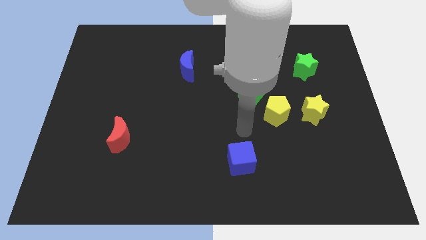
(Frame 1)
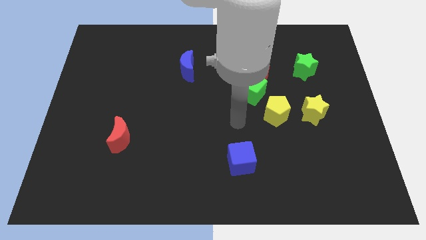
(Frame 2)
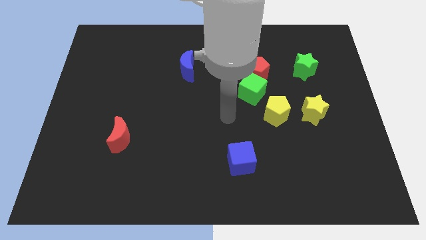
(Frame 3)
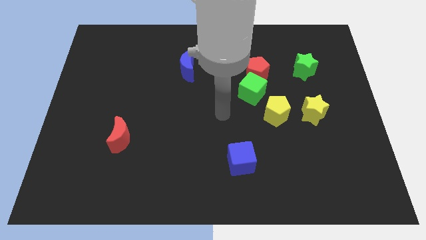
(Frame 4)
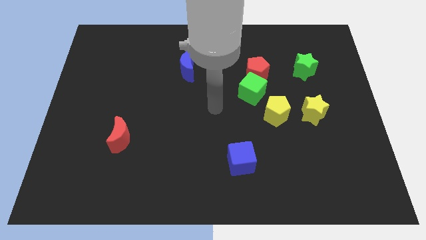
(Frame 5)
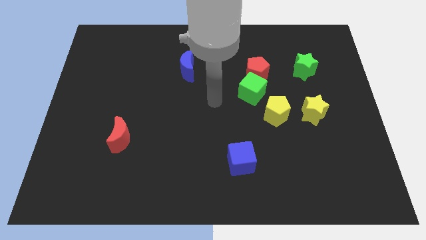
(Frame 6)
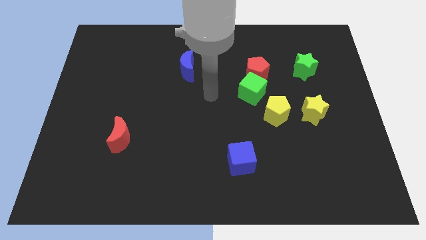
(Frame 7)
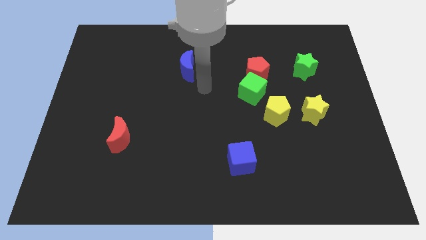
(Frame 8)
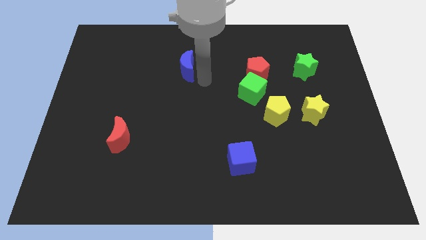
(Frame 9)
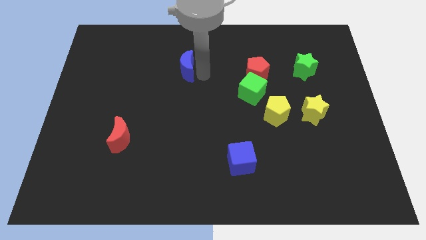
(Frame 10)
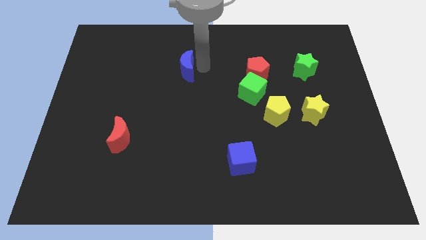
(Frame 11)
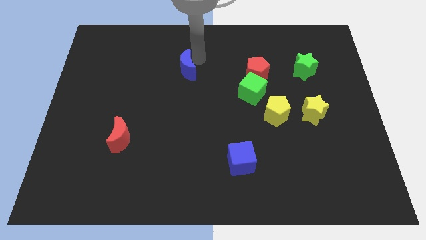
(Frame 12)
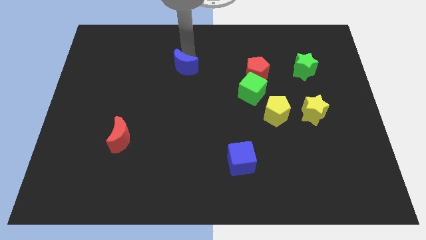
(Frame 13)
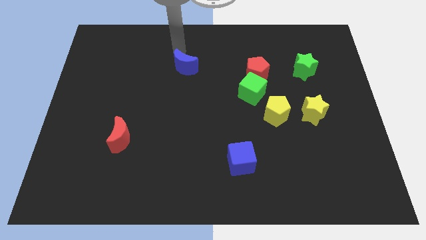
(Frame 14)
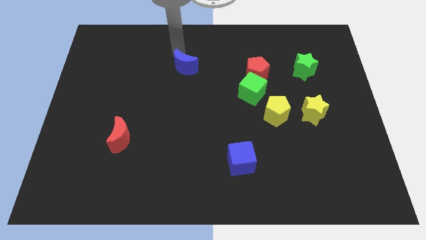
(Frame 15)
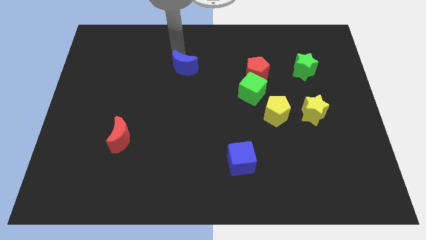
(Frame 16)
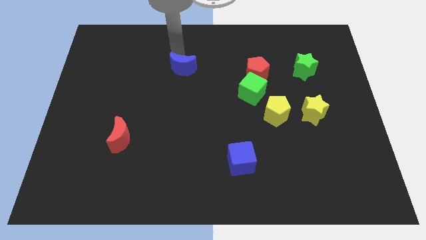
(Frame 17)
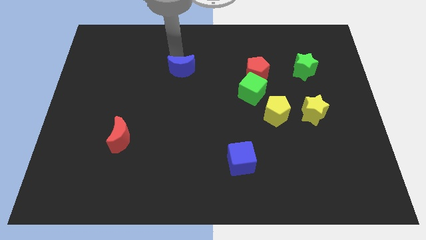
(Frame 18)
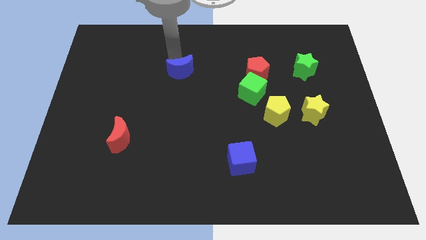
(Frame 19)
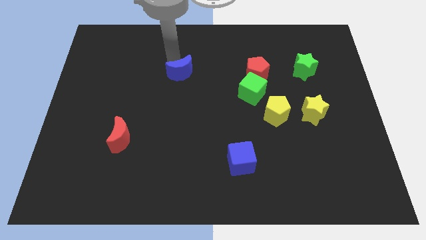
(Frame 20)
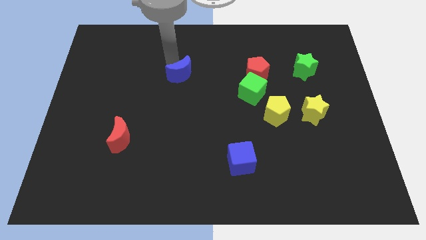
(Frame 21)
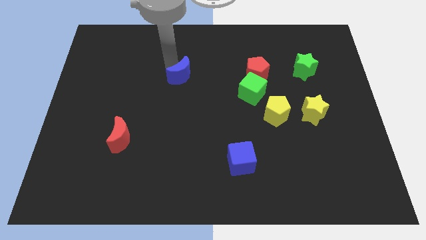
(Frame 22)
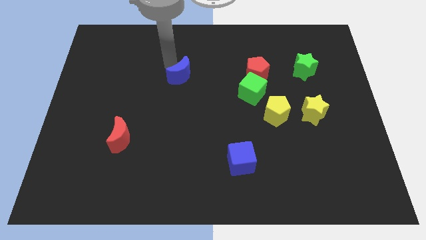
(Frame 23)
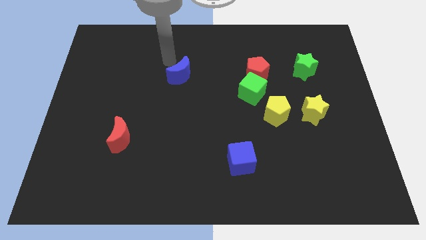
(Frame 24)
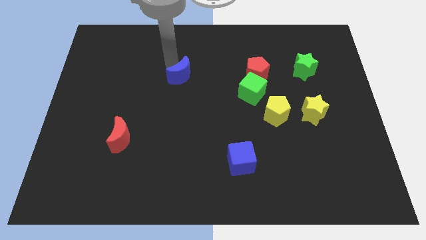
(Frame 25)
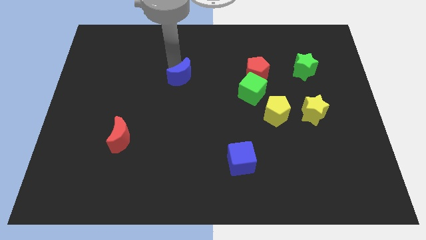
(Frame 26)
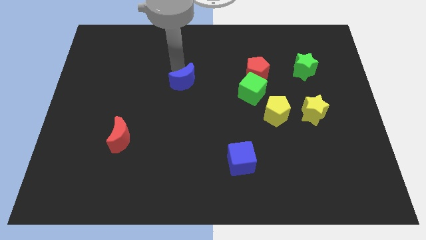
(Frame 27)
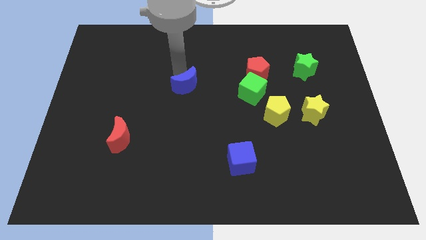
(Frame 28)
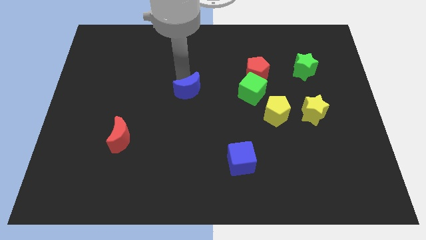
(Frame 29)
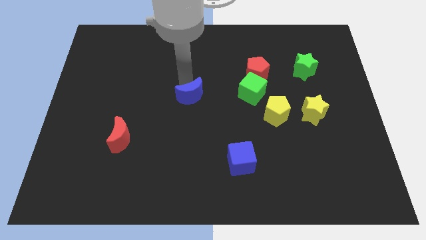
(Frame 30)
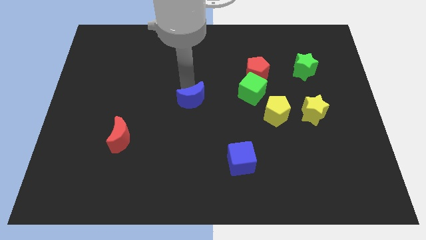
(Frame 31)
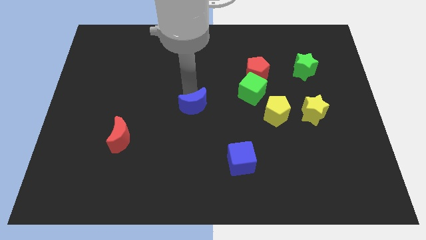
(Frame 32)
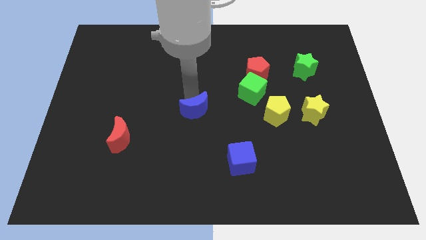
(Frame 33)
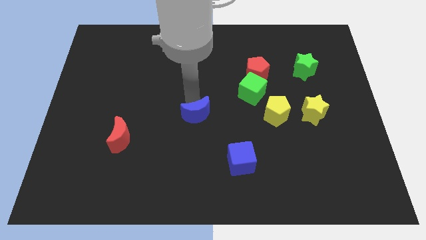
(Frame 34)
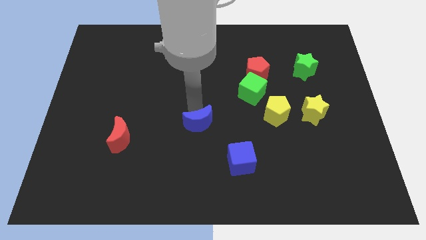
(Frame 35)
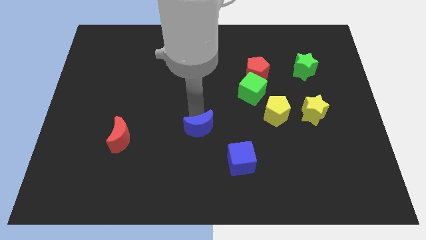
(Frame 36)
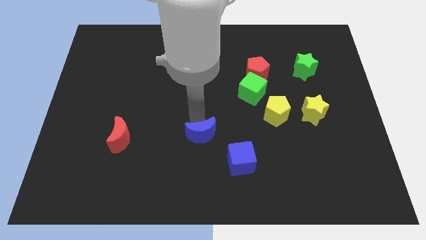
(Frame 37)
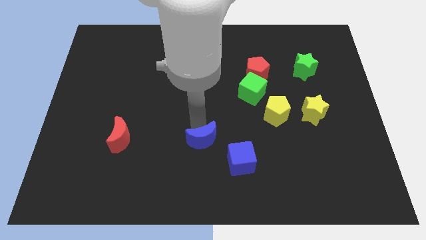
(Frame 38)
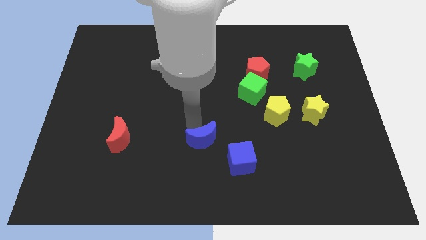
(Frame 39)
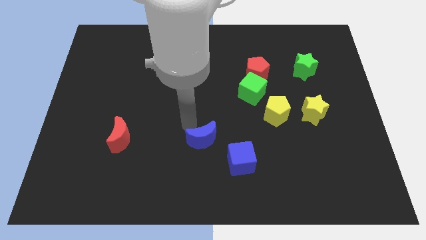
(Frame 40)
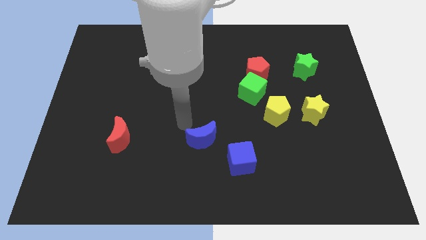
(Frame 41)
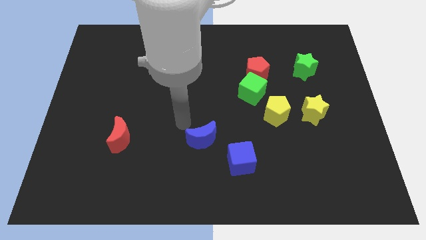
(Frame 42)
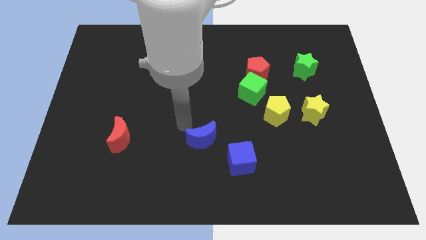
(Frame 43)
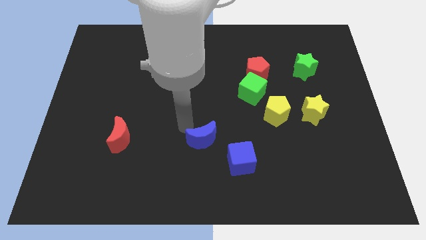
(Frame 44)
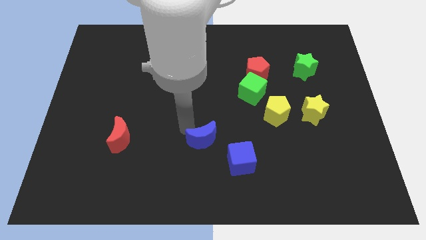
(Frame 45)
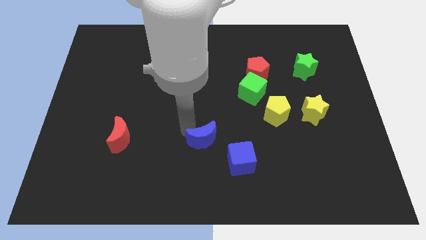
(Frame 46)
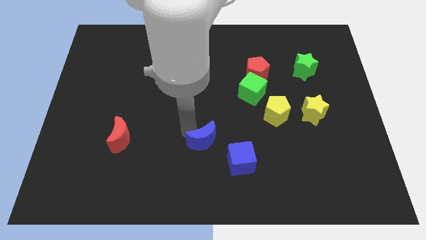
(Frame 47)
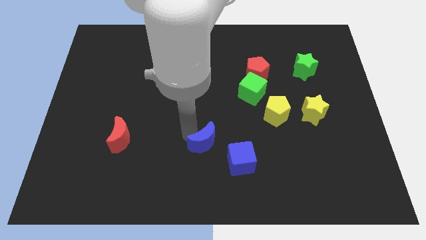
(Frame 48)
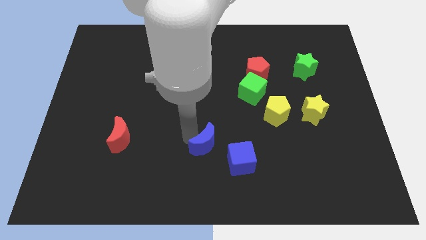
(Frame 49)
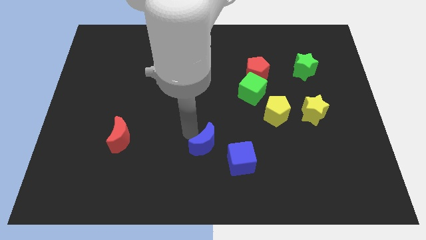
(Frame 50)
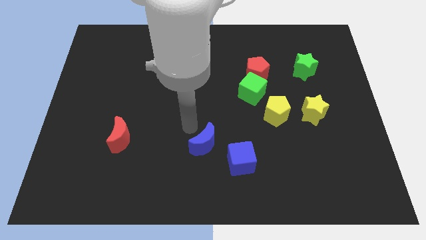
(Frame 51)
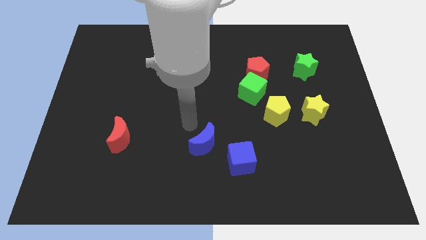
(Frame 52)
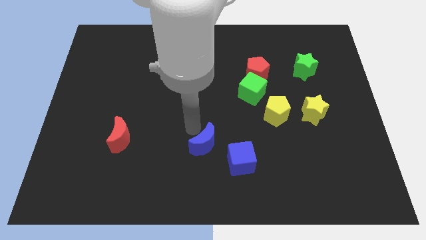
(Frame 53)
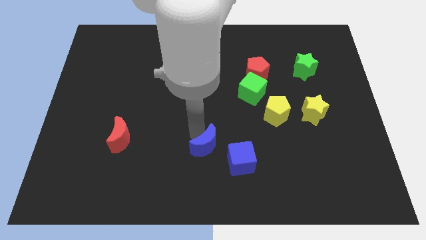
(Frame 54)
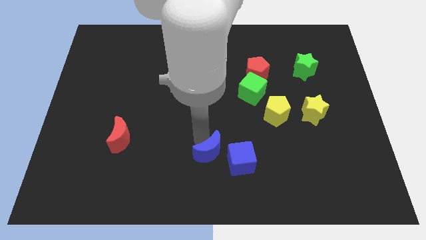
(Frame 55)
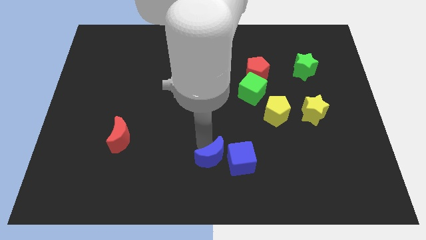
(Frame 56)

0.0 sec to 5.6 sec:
push the blue moon to the bottom side
